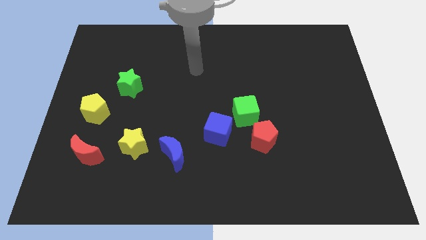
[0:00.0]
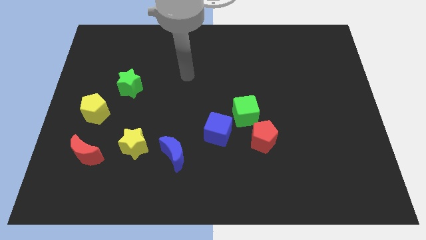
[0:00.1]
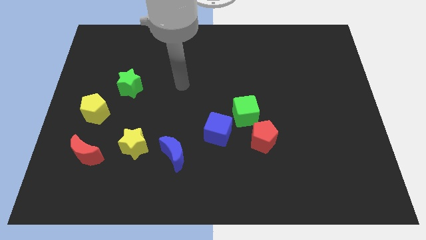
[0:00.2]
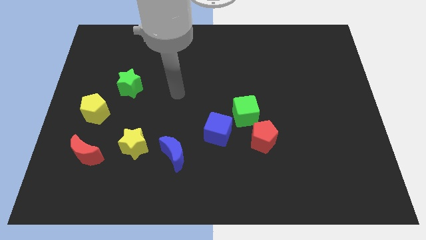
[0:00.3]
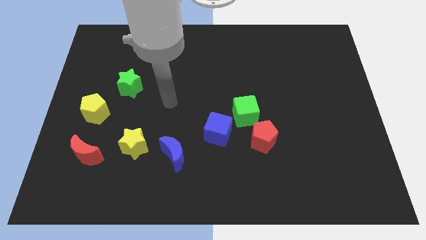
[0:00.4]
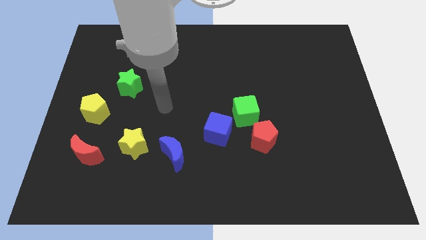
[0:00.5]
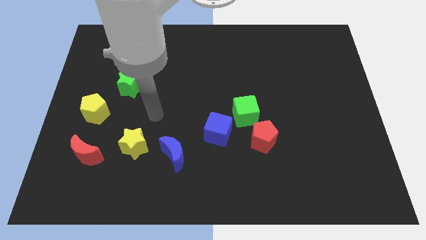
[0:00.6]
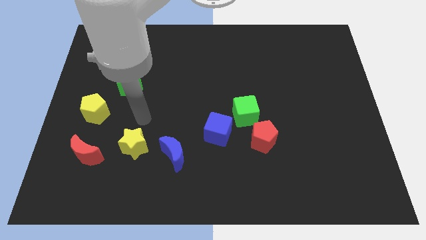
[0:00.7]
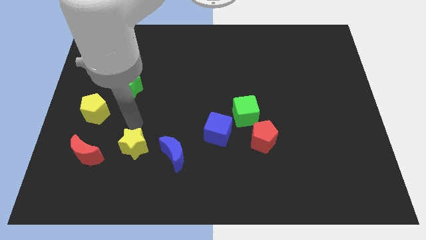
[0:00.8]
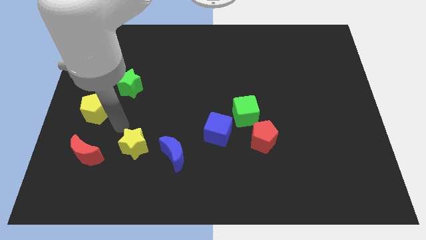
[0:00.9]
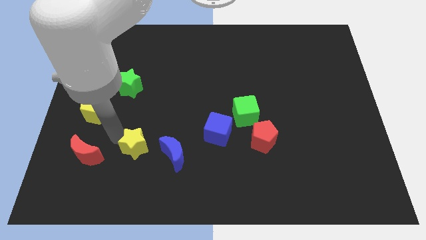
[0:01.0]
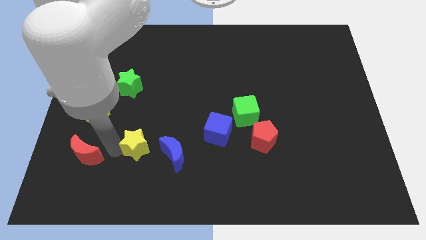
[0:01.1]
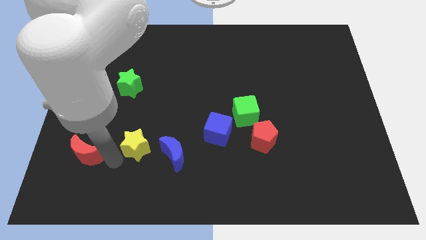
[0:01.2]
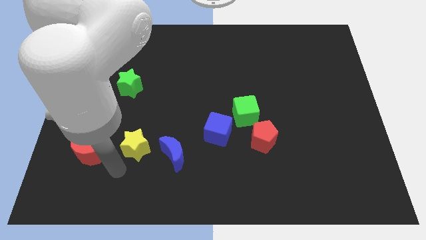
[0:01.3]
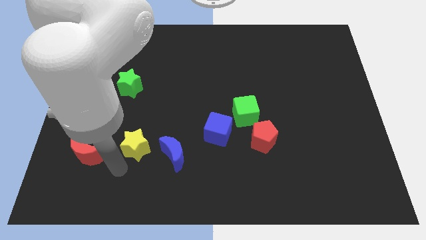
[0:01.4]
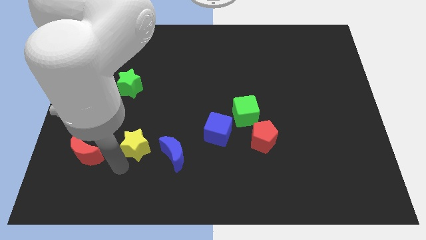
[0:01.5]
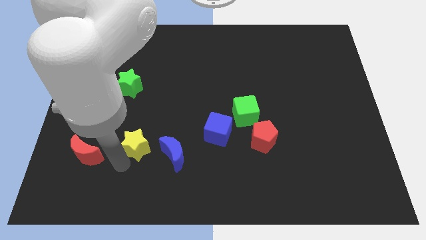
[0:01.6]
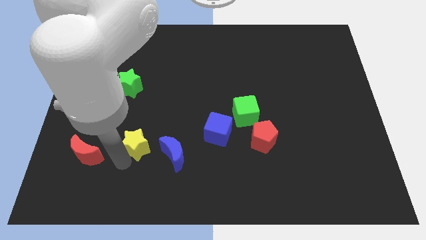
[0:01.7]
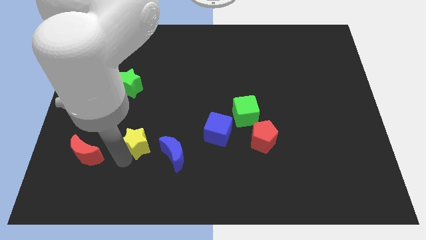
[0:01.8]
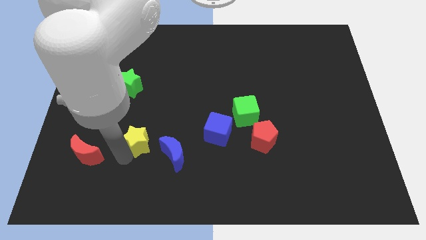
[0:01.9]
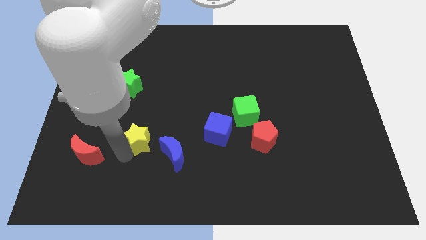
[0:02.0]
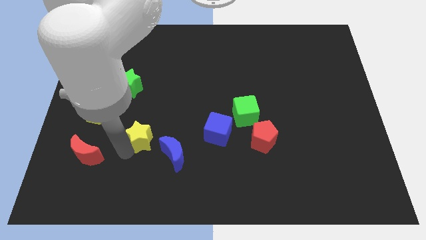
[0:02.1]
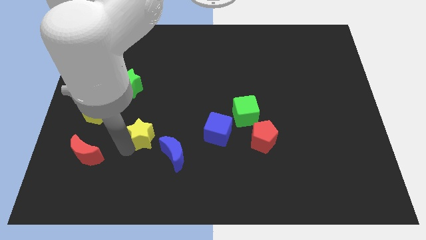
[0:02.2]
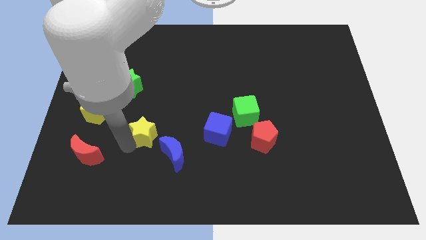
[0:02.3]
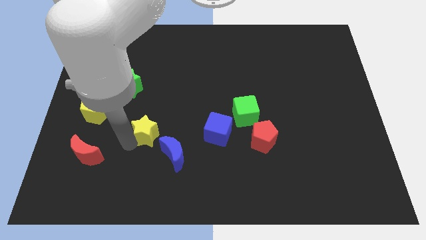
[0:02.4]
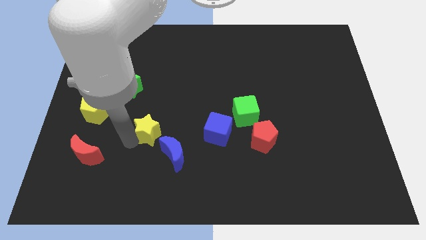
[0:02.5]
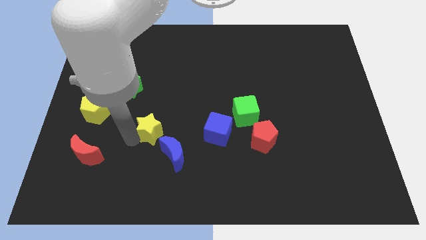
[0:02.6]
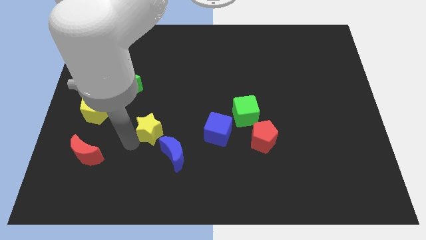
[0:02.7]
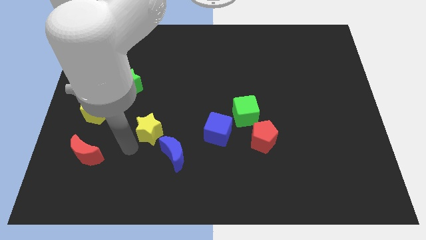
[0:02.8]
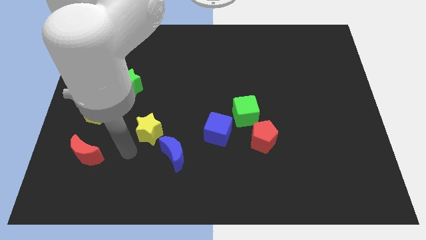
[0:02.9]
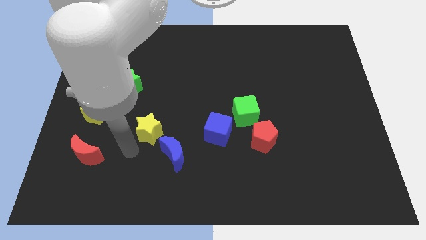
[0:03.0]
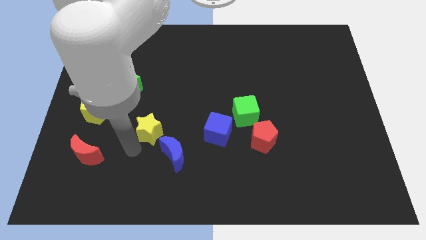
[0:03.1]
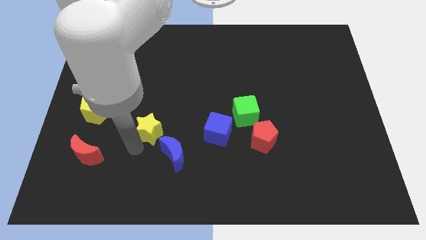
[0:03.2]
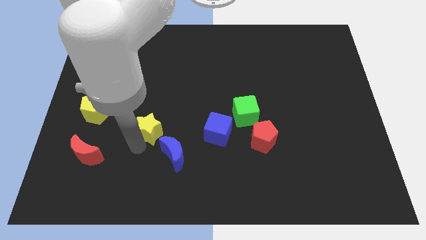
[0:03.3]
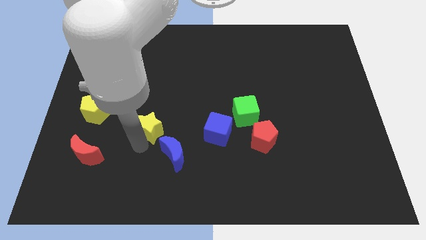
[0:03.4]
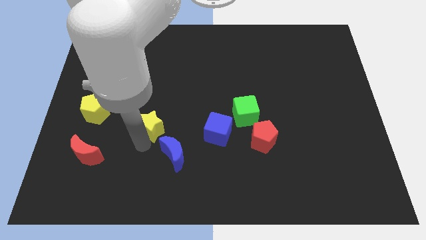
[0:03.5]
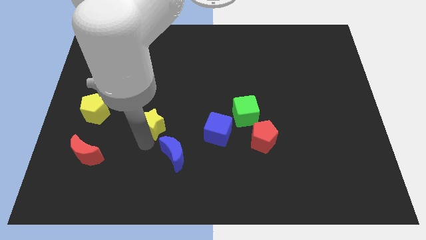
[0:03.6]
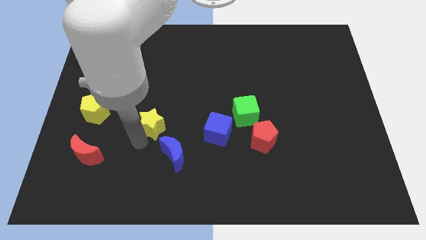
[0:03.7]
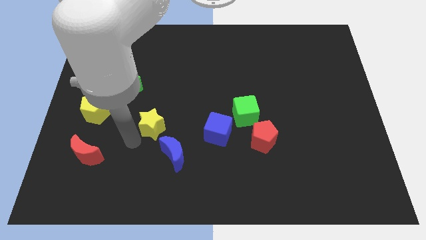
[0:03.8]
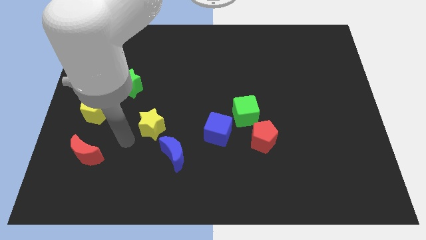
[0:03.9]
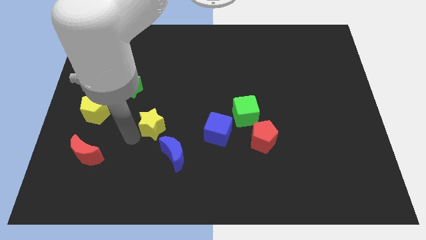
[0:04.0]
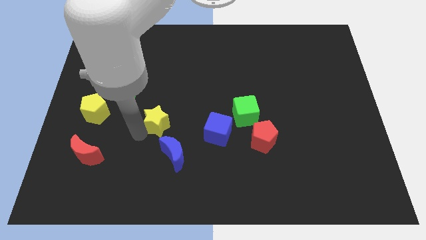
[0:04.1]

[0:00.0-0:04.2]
move the yellow star a little bit up and to the right

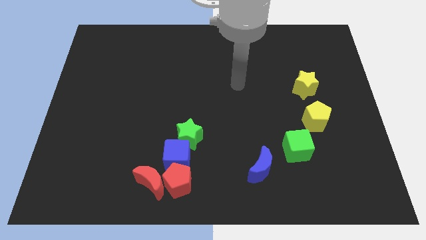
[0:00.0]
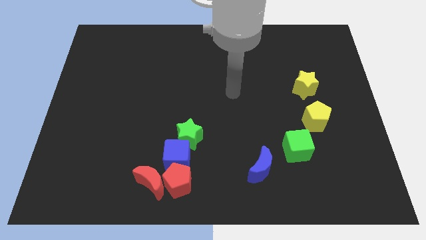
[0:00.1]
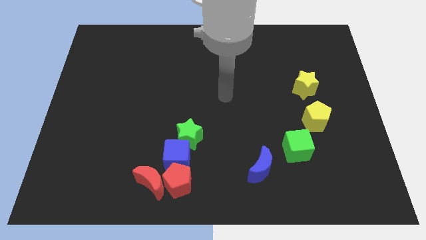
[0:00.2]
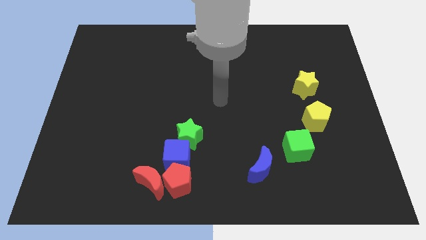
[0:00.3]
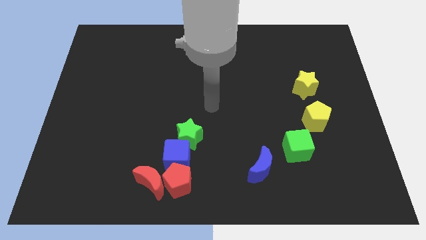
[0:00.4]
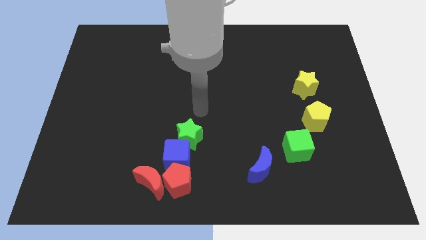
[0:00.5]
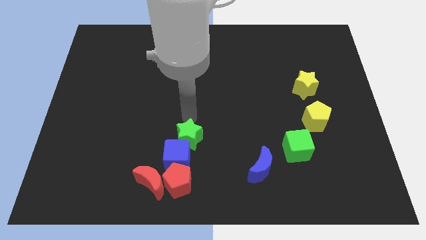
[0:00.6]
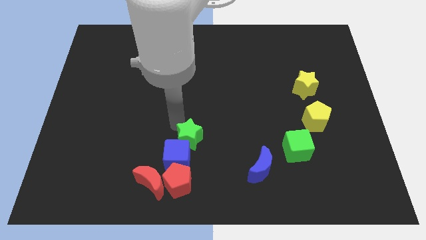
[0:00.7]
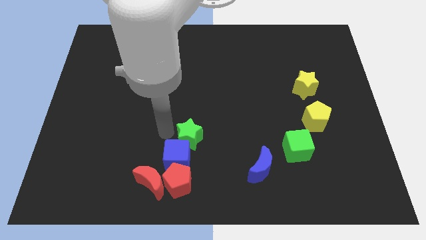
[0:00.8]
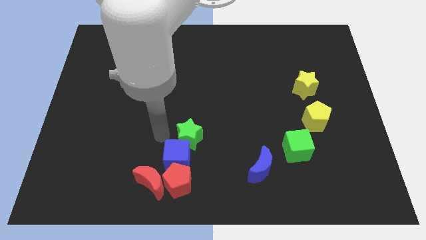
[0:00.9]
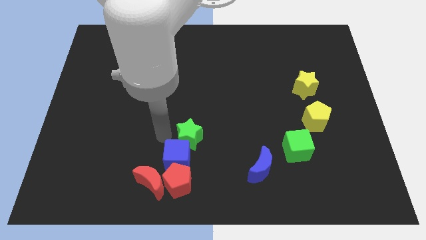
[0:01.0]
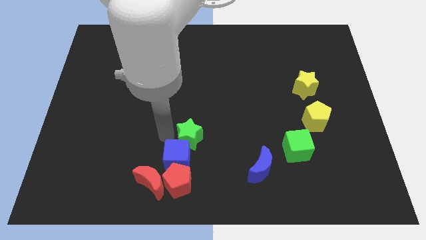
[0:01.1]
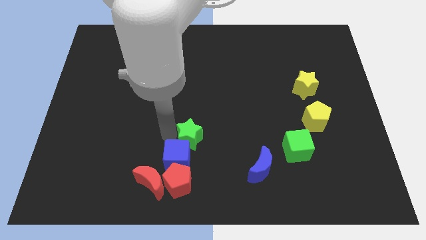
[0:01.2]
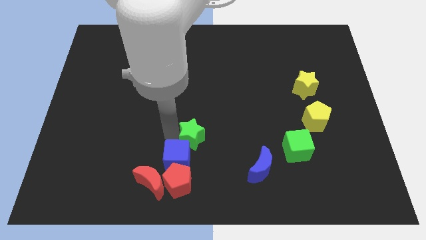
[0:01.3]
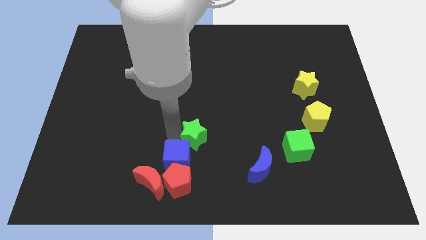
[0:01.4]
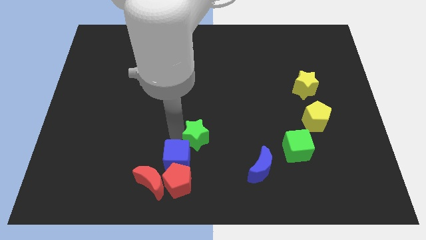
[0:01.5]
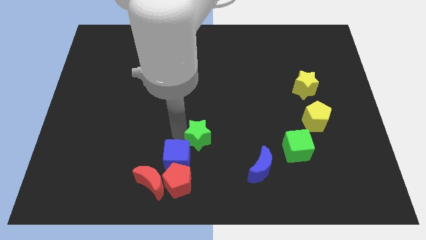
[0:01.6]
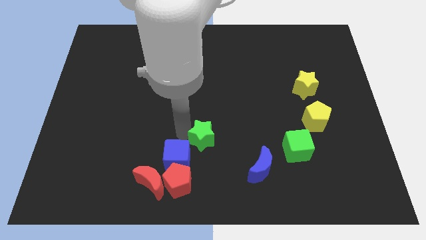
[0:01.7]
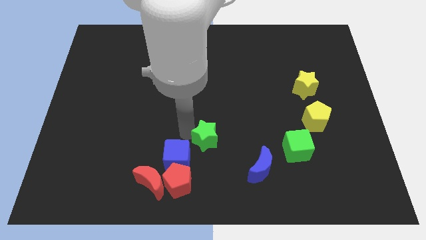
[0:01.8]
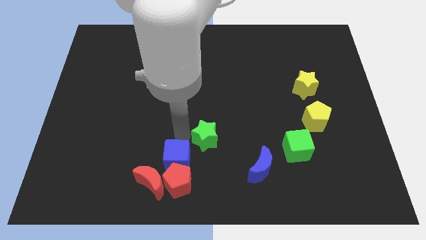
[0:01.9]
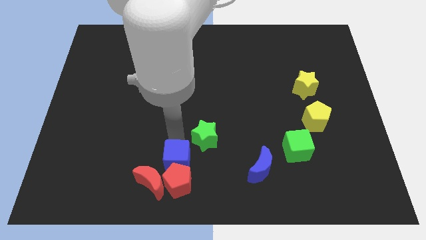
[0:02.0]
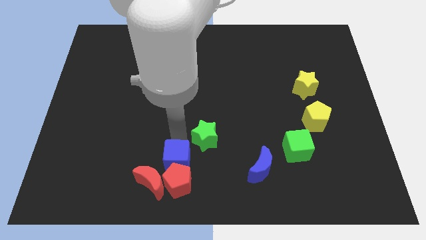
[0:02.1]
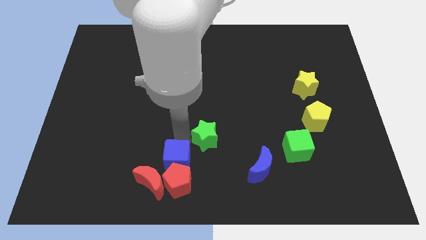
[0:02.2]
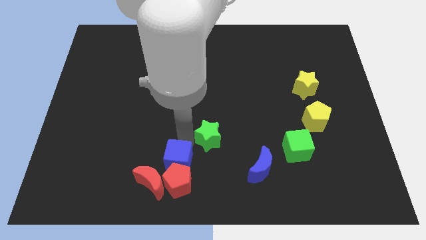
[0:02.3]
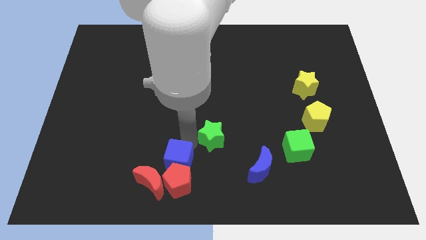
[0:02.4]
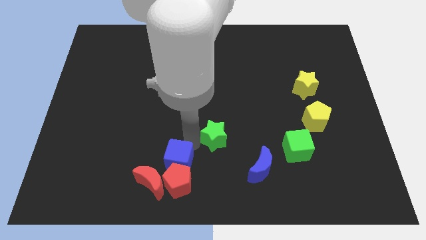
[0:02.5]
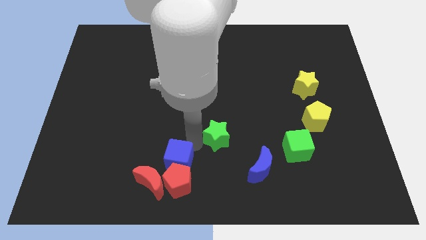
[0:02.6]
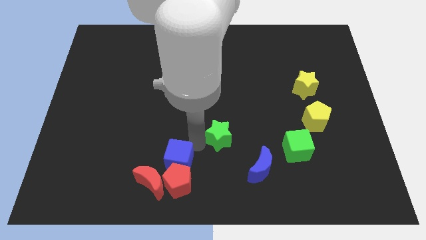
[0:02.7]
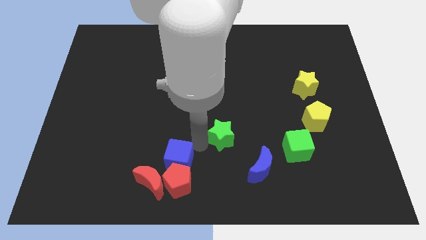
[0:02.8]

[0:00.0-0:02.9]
push the green star right a little

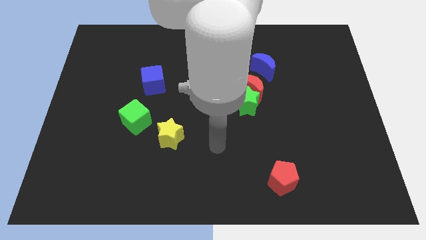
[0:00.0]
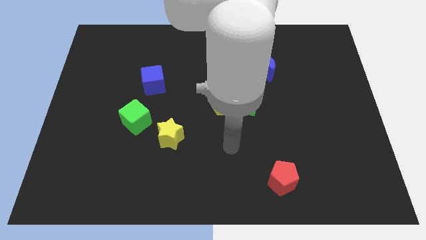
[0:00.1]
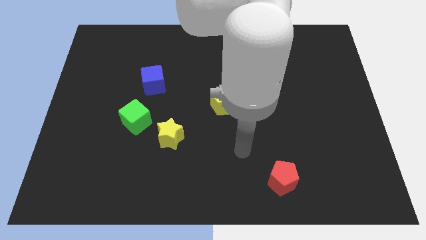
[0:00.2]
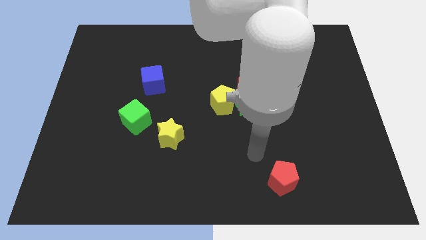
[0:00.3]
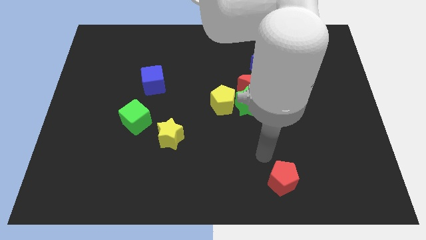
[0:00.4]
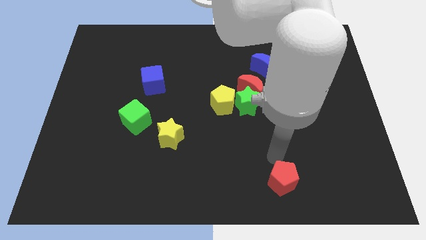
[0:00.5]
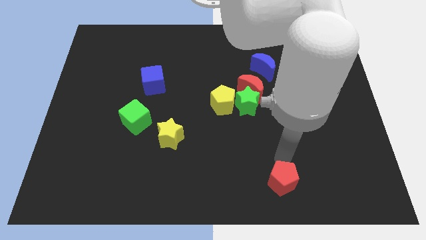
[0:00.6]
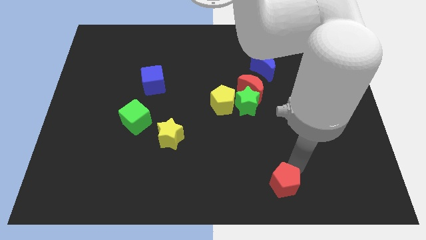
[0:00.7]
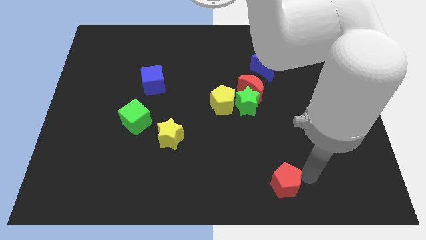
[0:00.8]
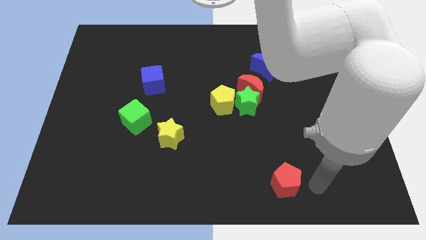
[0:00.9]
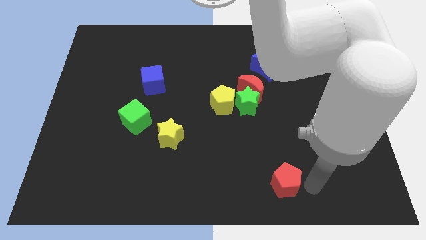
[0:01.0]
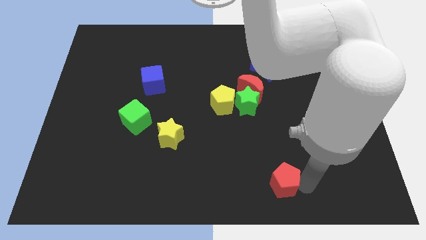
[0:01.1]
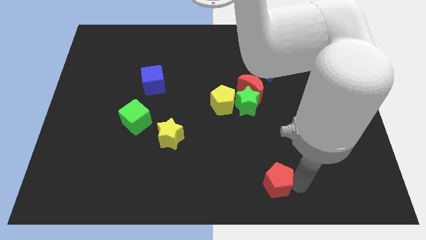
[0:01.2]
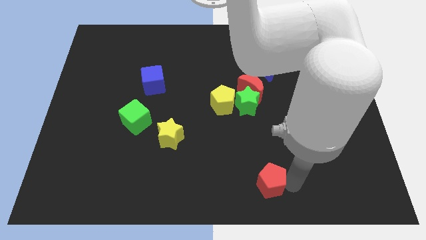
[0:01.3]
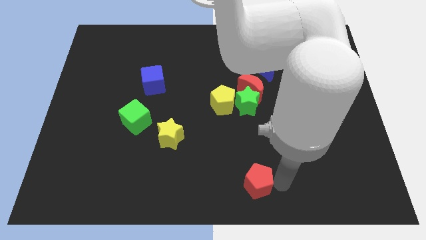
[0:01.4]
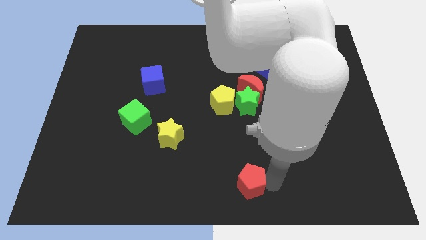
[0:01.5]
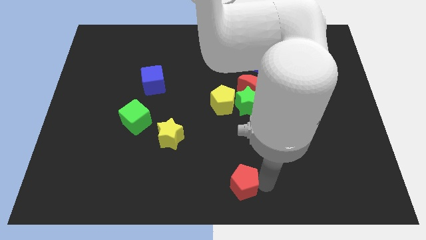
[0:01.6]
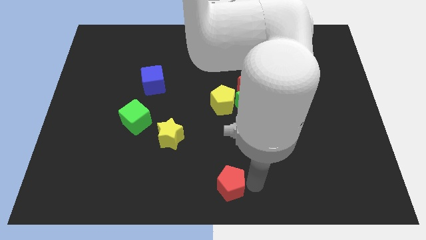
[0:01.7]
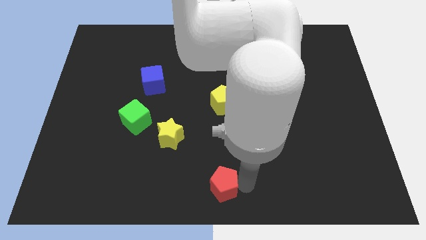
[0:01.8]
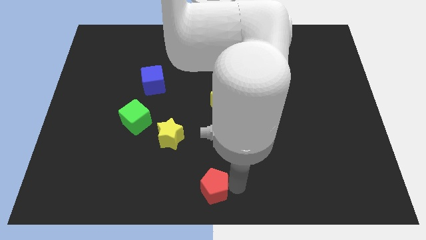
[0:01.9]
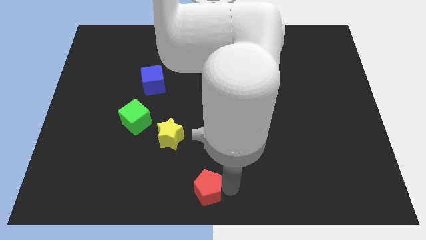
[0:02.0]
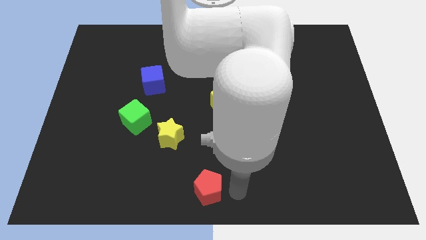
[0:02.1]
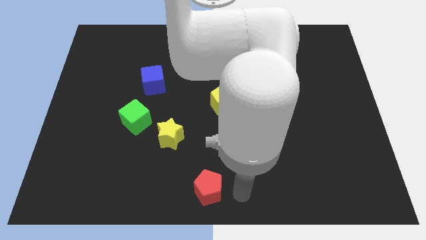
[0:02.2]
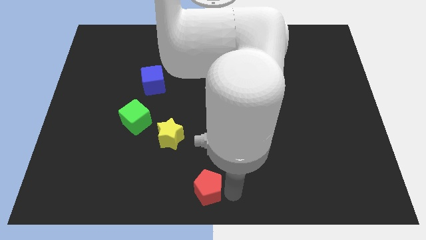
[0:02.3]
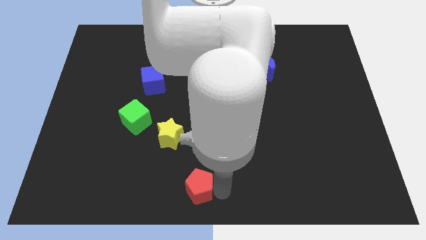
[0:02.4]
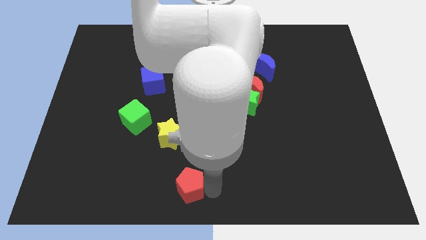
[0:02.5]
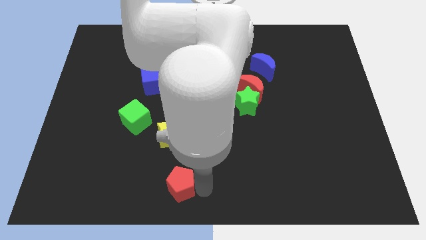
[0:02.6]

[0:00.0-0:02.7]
push the red pentagon left
